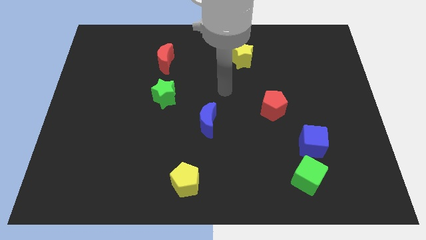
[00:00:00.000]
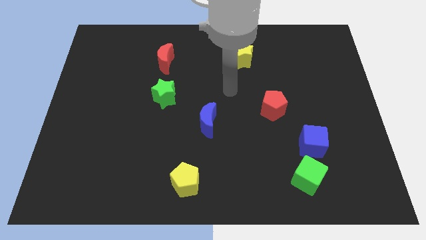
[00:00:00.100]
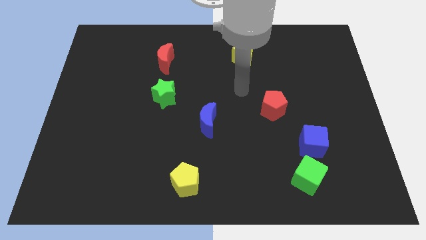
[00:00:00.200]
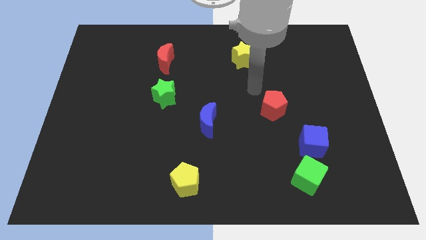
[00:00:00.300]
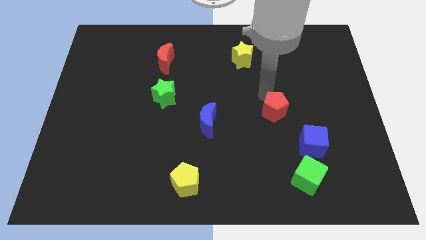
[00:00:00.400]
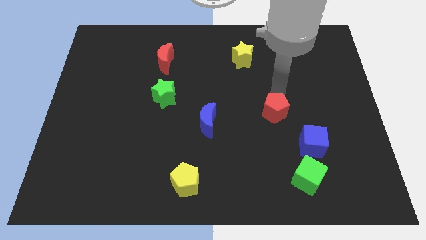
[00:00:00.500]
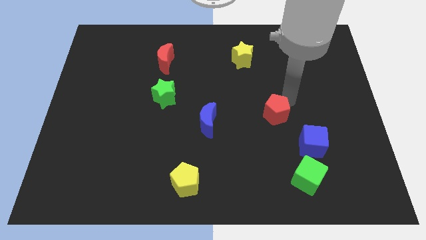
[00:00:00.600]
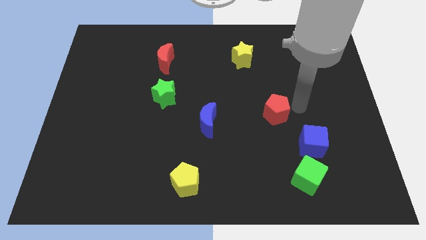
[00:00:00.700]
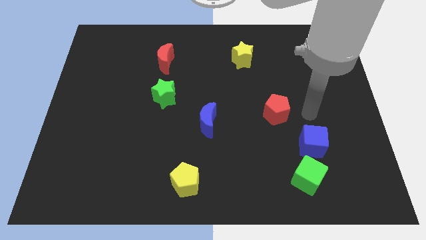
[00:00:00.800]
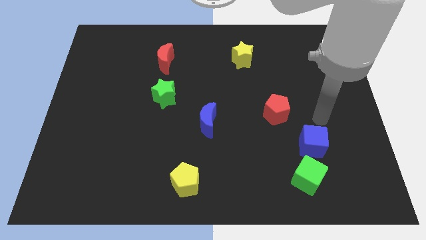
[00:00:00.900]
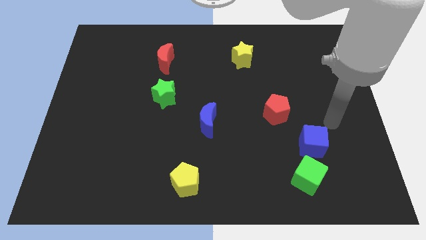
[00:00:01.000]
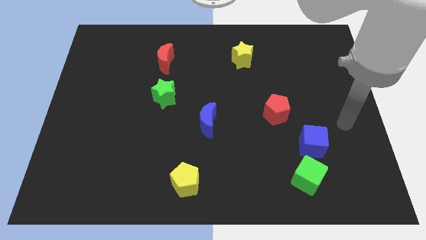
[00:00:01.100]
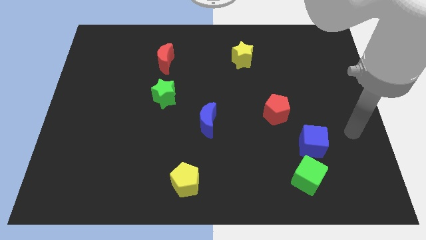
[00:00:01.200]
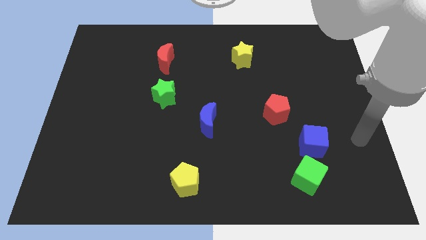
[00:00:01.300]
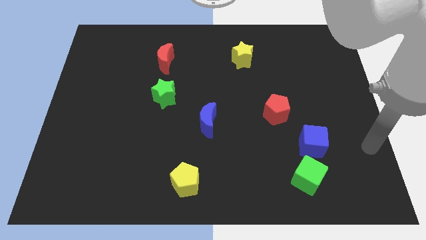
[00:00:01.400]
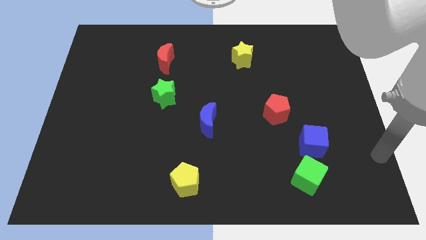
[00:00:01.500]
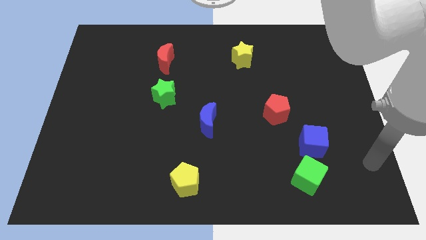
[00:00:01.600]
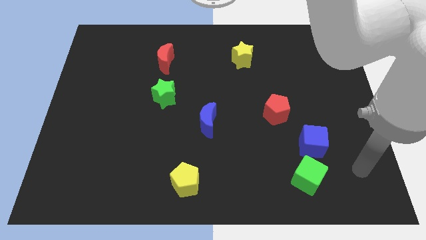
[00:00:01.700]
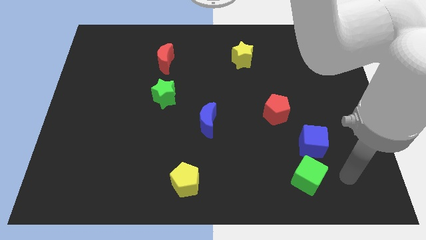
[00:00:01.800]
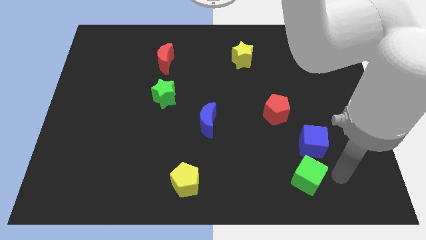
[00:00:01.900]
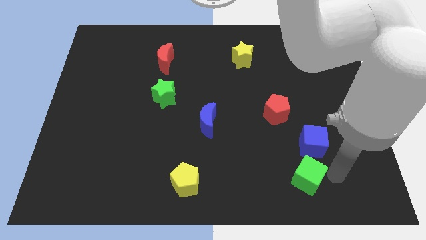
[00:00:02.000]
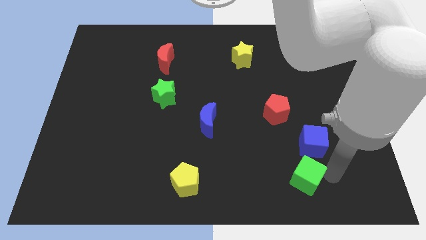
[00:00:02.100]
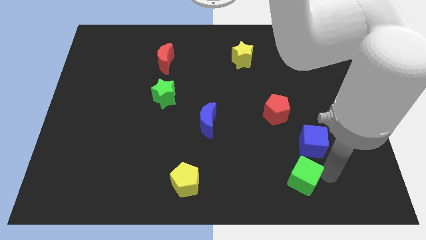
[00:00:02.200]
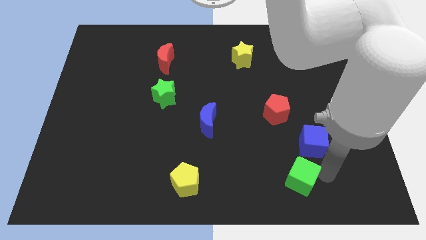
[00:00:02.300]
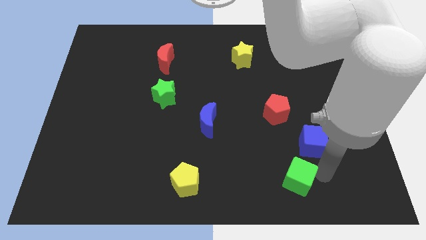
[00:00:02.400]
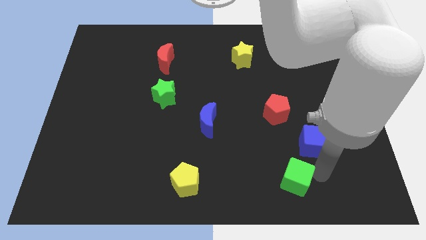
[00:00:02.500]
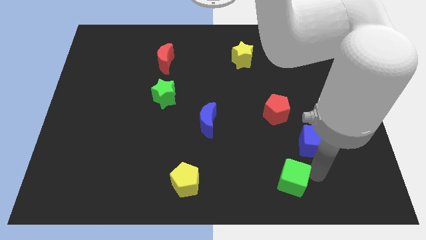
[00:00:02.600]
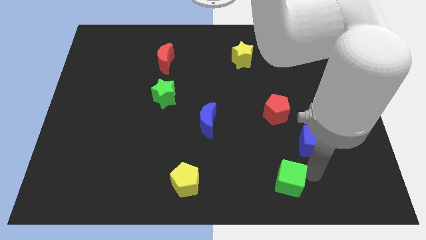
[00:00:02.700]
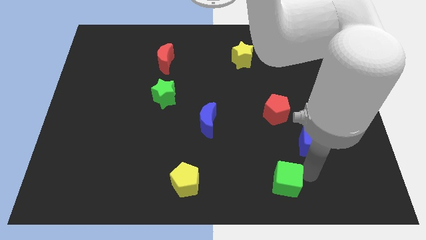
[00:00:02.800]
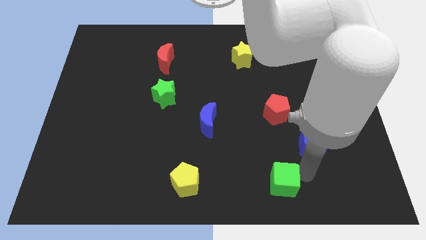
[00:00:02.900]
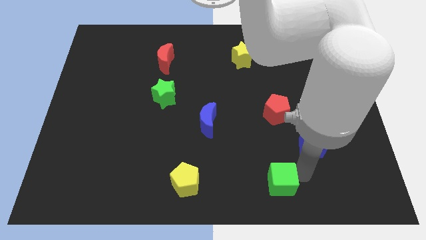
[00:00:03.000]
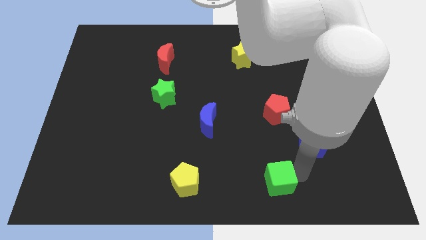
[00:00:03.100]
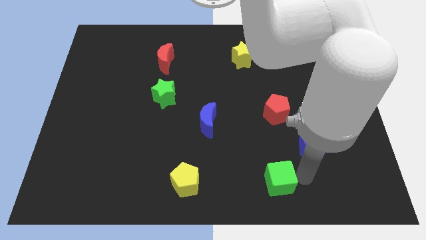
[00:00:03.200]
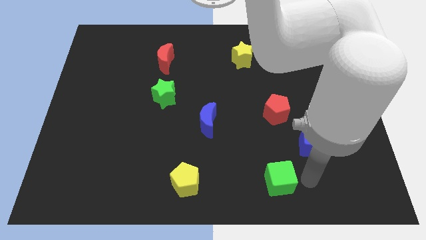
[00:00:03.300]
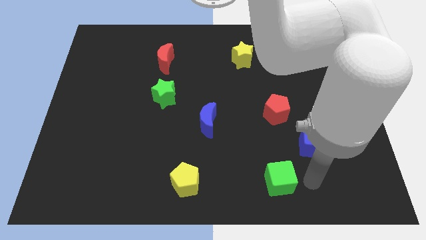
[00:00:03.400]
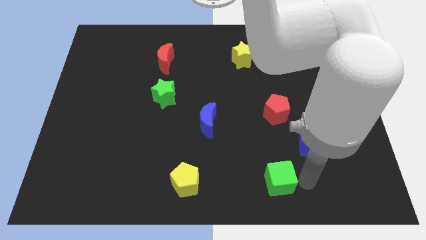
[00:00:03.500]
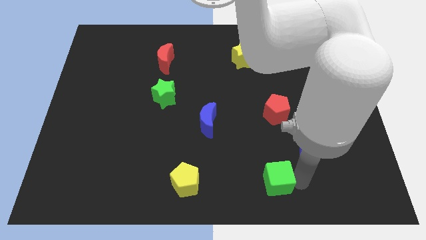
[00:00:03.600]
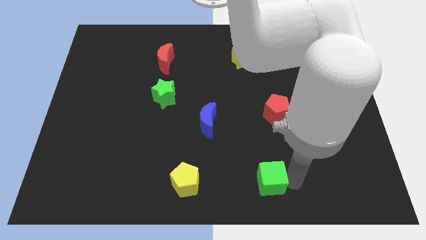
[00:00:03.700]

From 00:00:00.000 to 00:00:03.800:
slightly push the green cube left

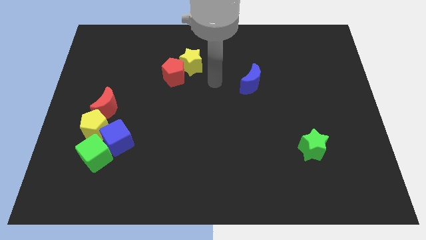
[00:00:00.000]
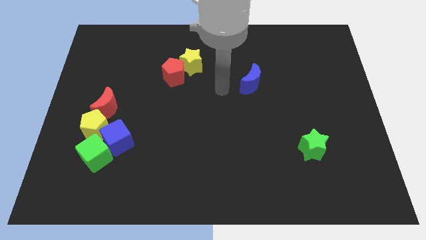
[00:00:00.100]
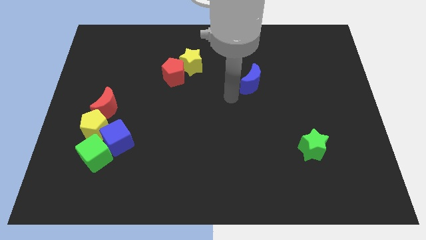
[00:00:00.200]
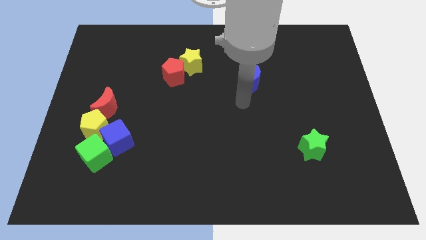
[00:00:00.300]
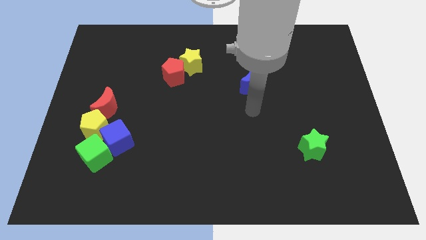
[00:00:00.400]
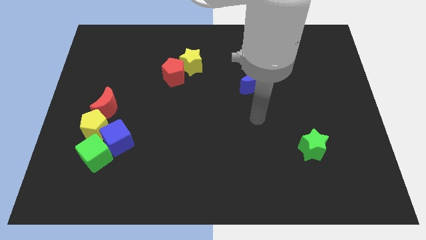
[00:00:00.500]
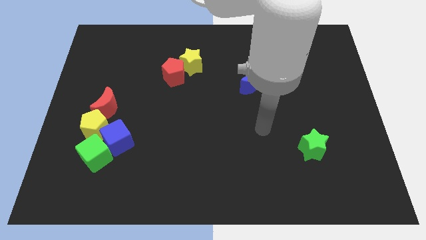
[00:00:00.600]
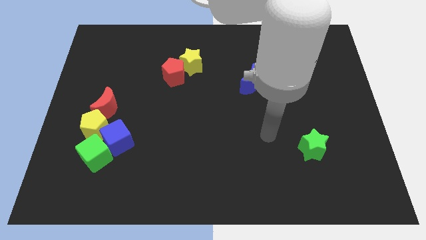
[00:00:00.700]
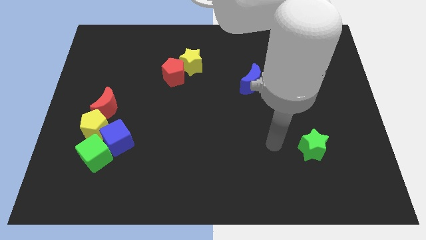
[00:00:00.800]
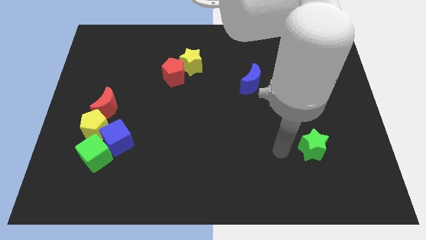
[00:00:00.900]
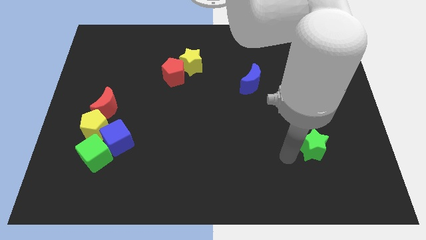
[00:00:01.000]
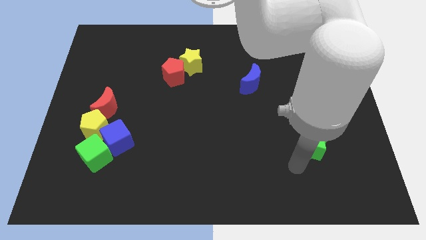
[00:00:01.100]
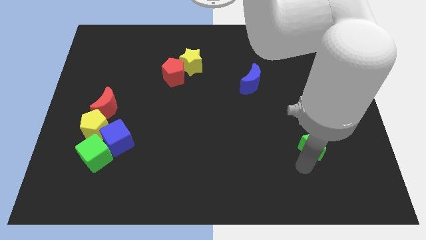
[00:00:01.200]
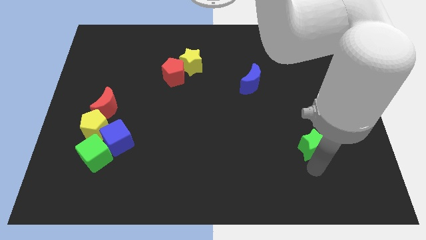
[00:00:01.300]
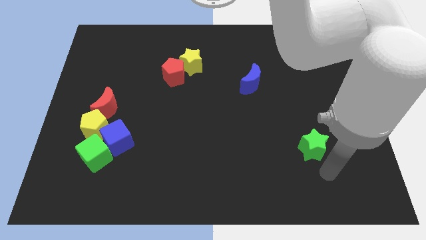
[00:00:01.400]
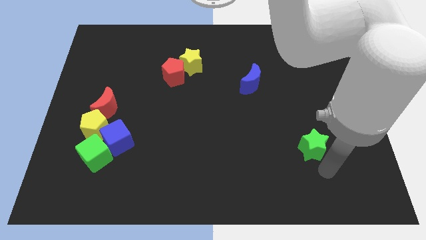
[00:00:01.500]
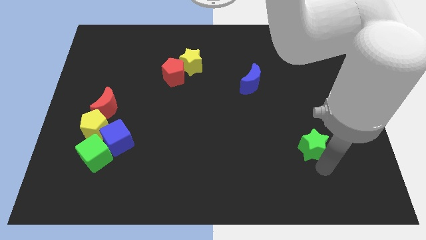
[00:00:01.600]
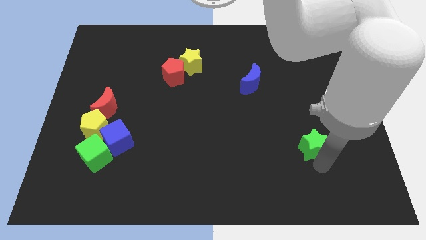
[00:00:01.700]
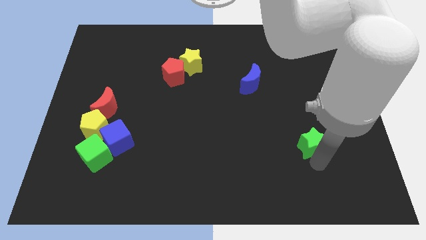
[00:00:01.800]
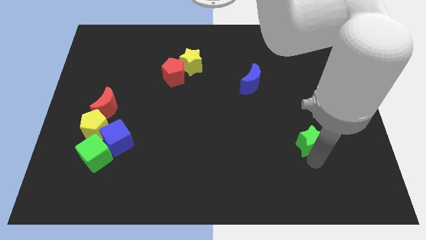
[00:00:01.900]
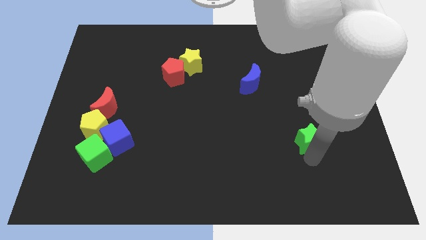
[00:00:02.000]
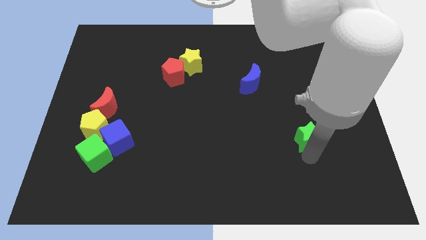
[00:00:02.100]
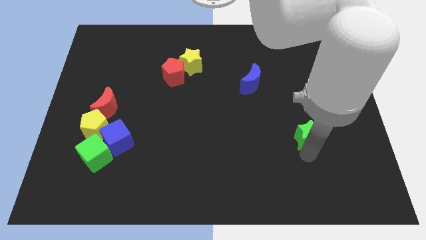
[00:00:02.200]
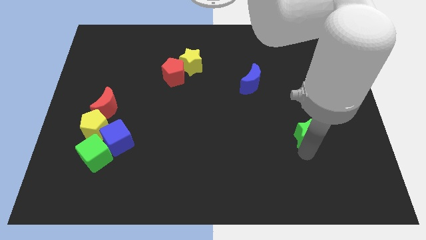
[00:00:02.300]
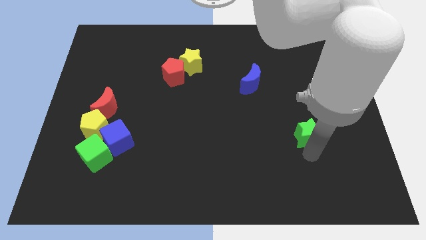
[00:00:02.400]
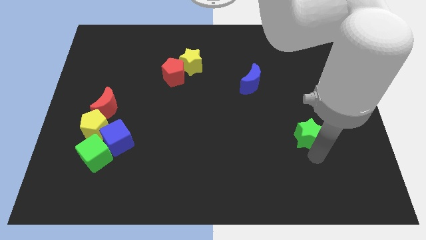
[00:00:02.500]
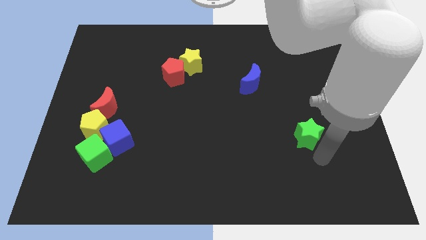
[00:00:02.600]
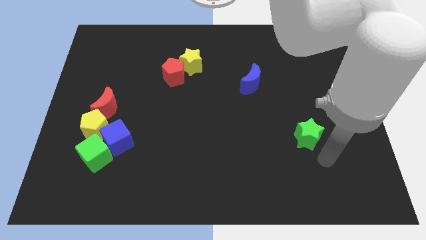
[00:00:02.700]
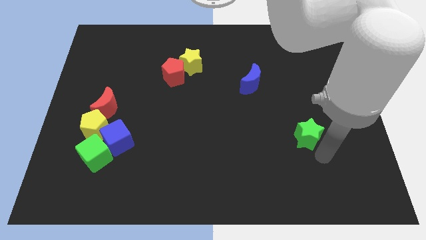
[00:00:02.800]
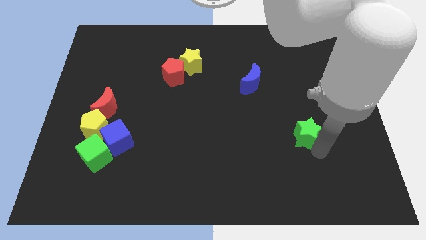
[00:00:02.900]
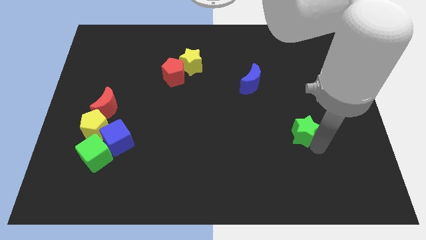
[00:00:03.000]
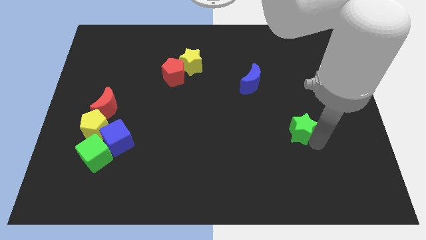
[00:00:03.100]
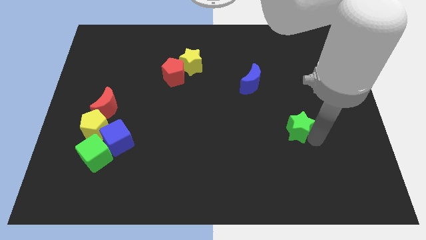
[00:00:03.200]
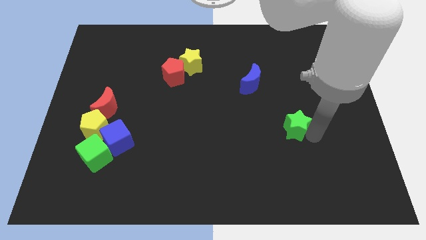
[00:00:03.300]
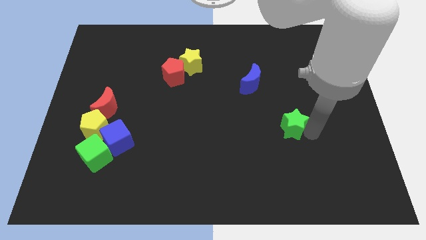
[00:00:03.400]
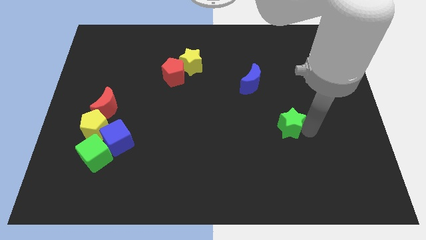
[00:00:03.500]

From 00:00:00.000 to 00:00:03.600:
slightly slide the green star upwards and to the left diagonally
